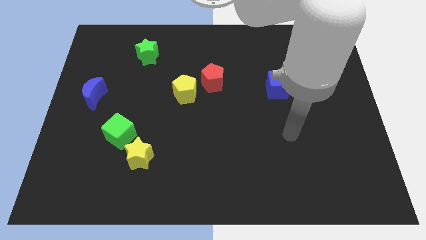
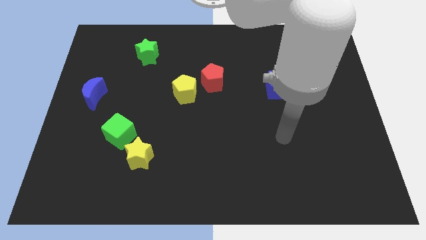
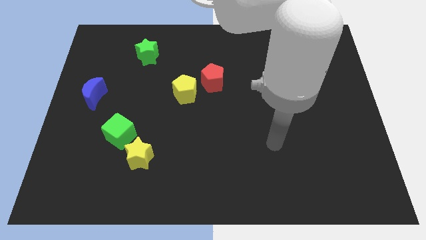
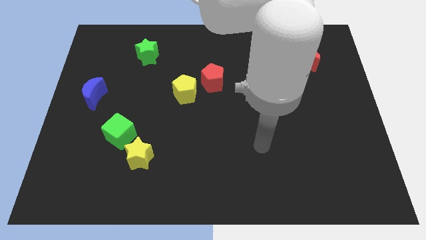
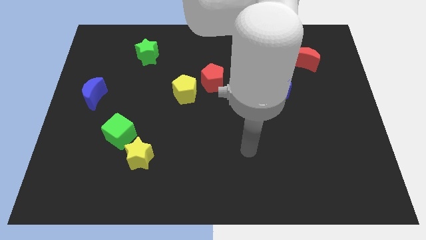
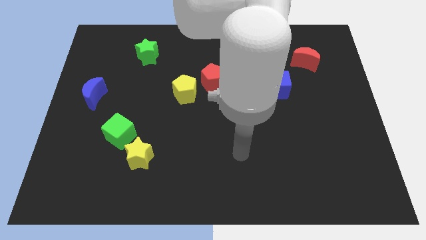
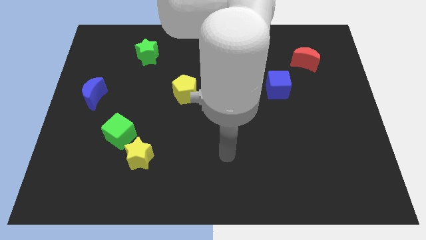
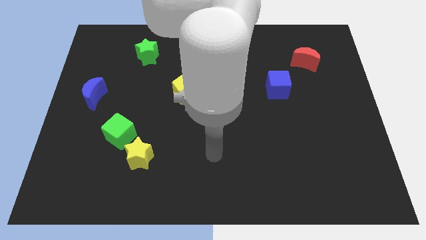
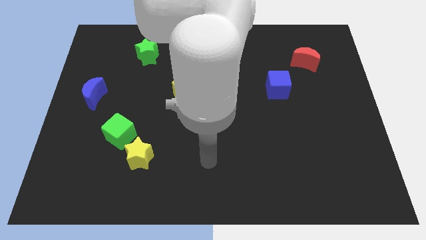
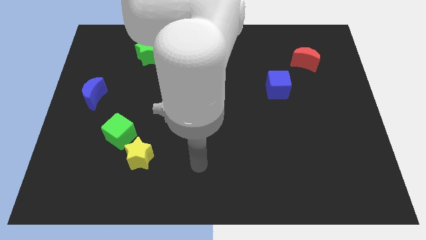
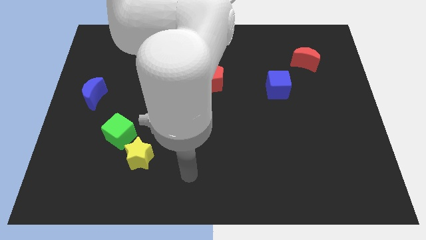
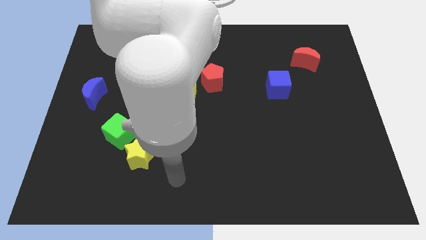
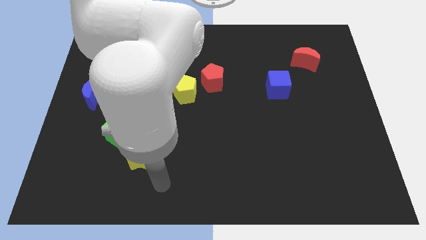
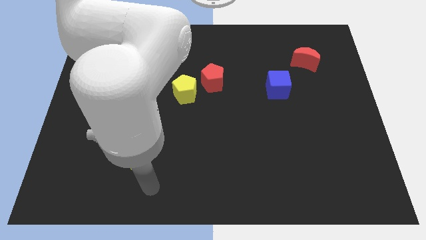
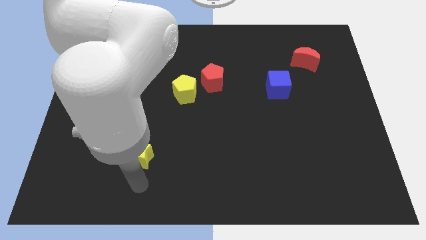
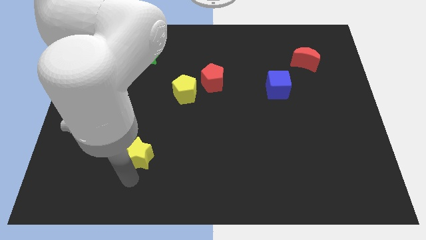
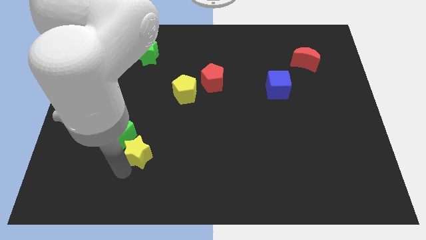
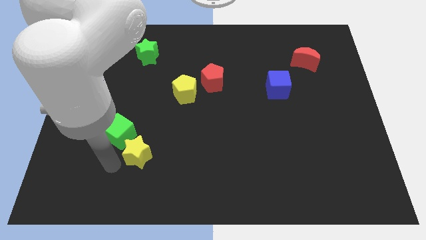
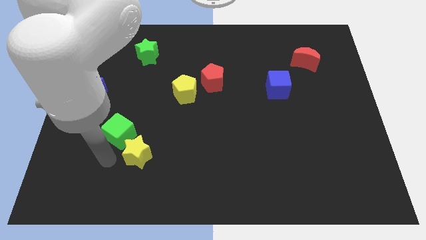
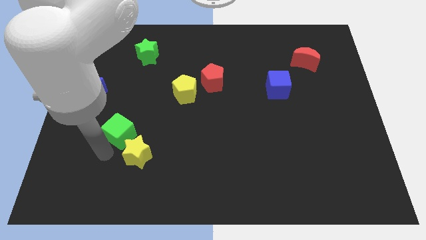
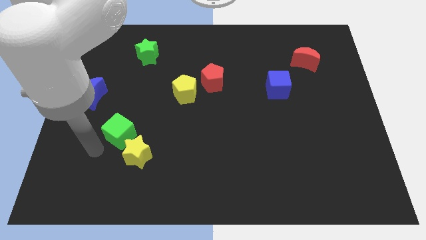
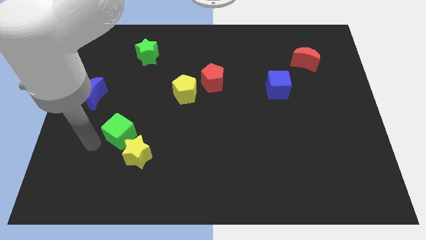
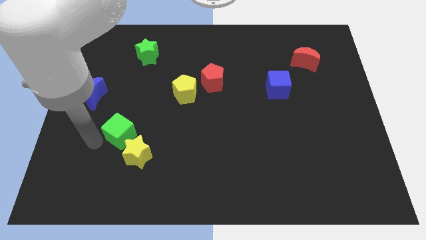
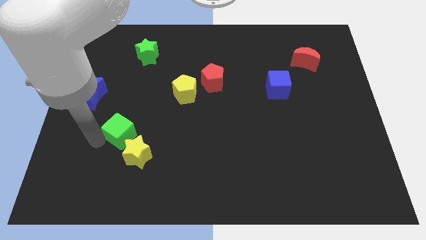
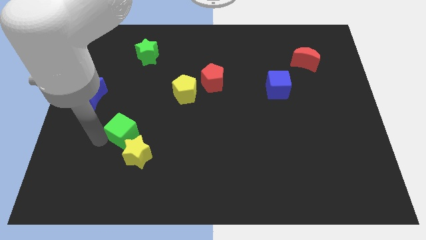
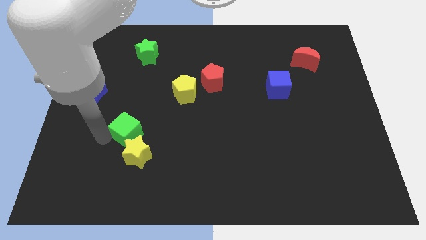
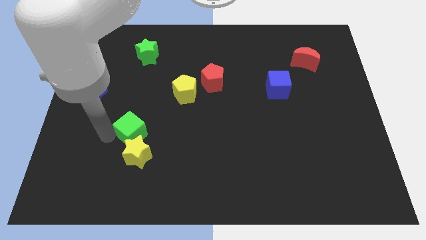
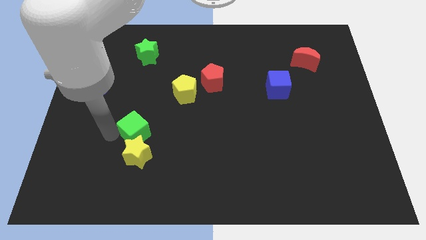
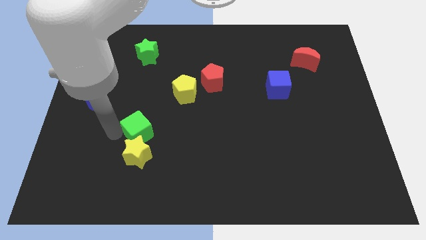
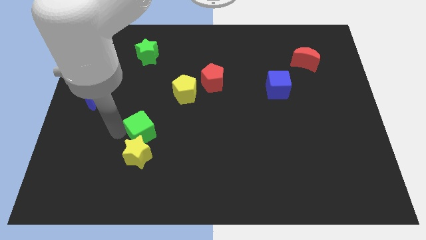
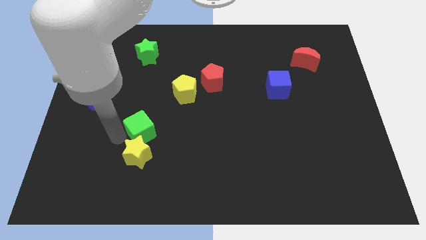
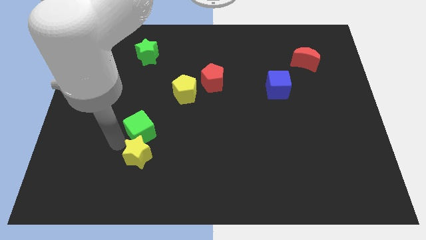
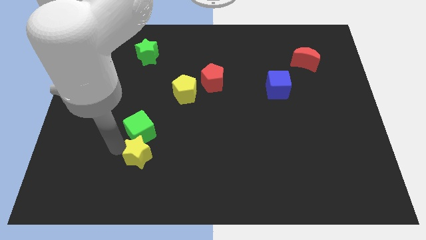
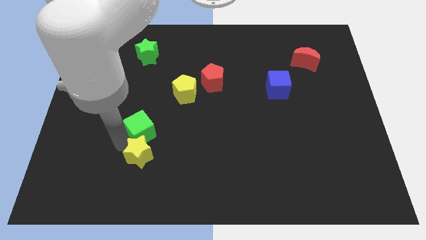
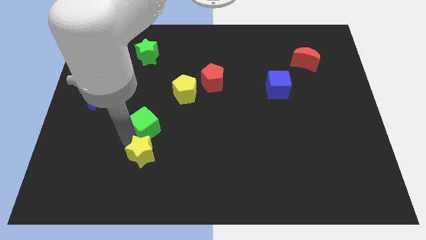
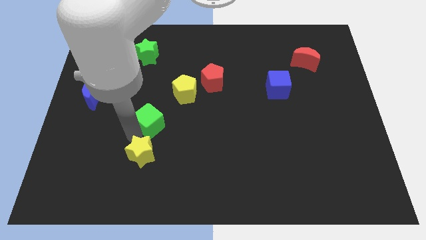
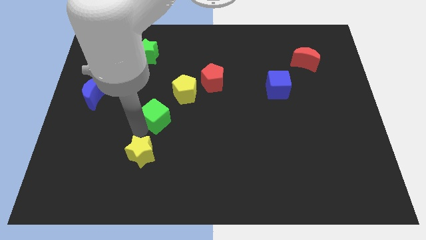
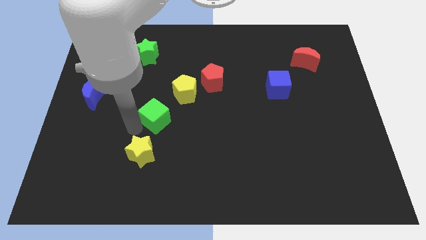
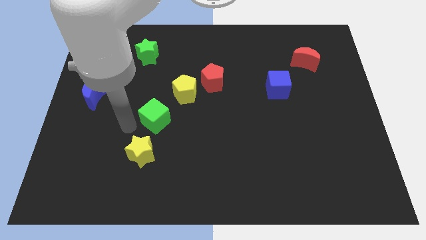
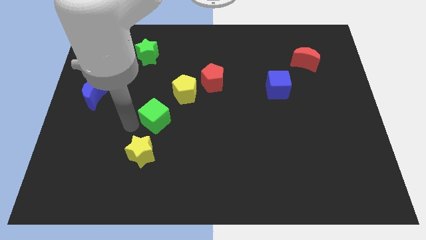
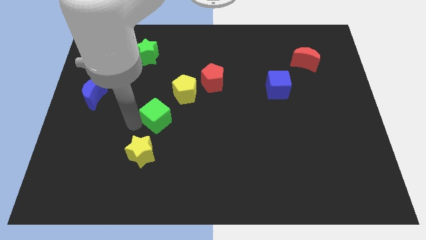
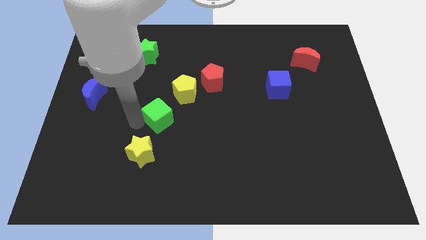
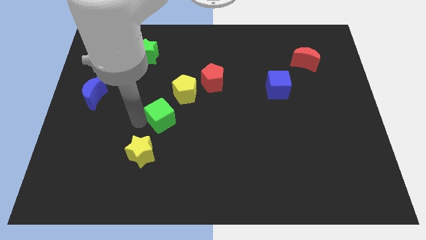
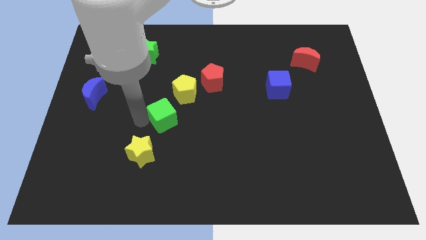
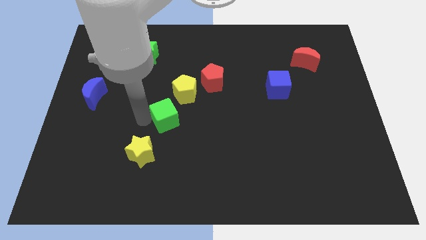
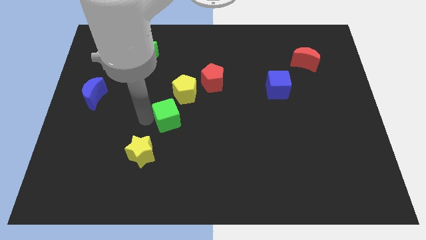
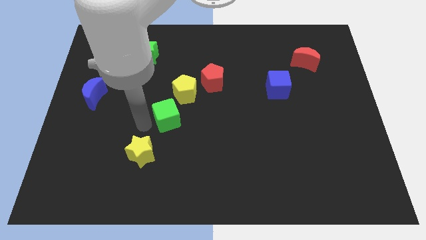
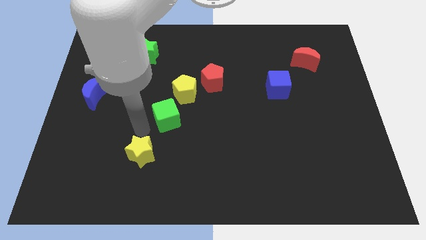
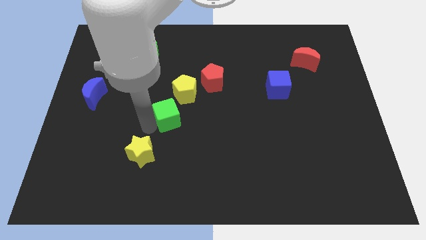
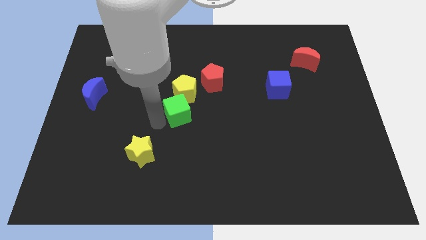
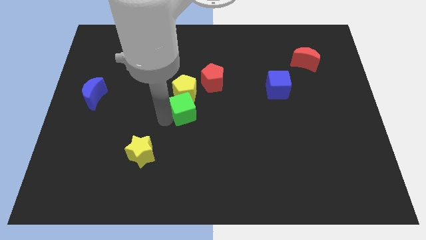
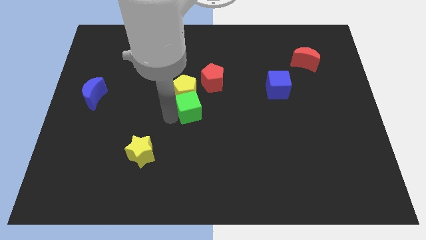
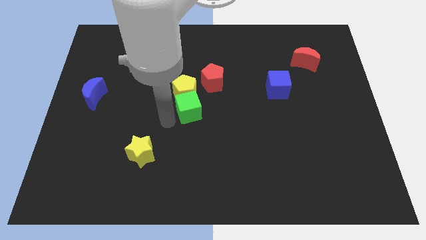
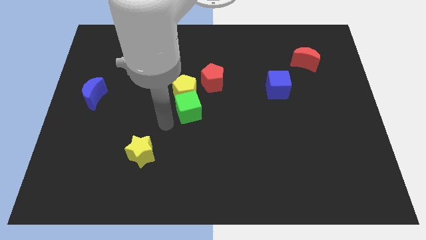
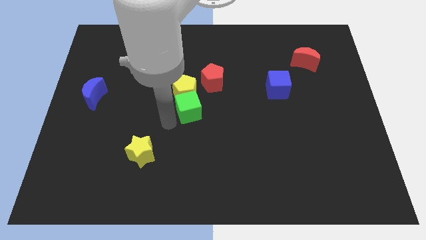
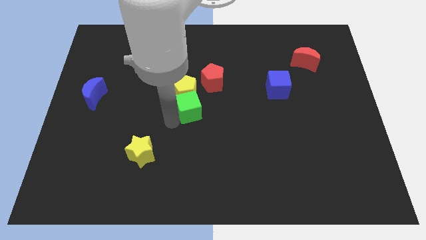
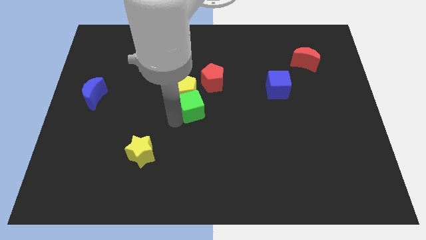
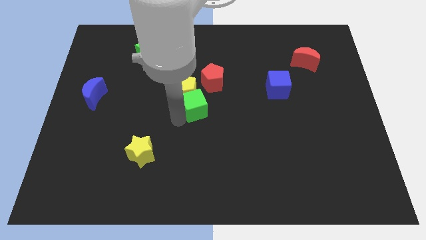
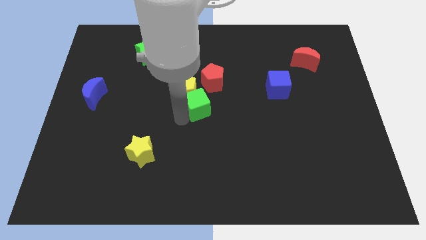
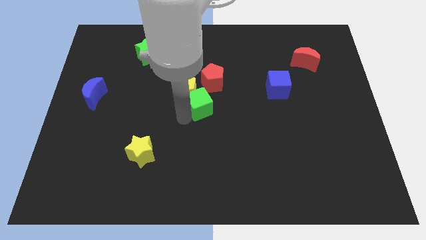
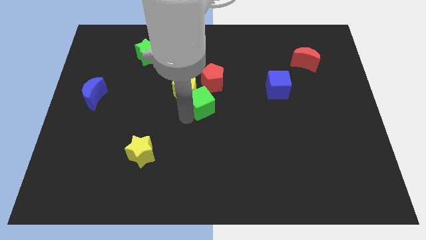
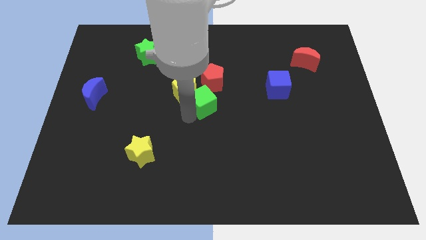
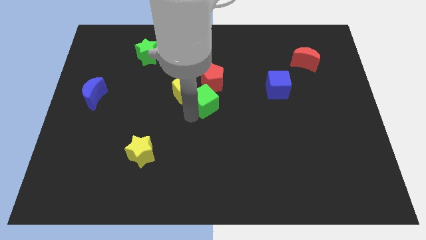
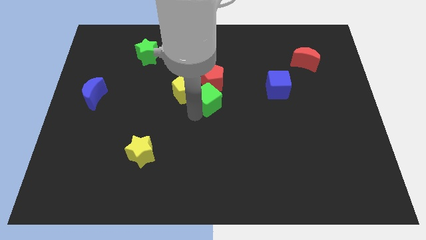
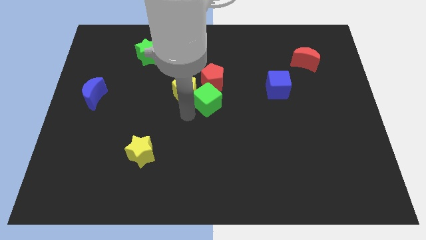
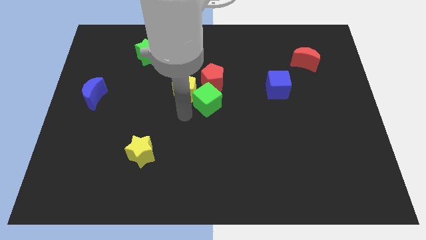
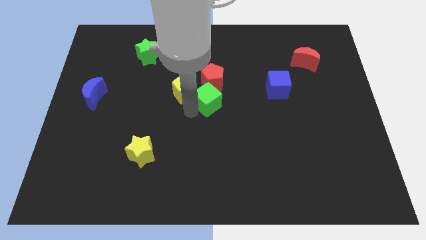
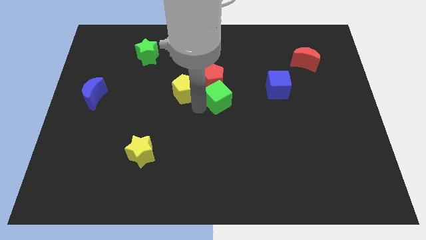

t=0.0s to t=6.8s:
push the green cube to the left side of the blue cube
